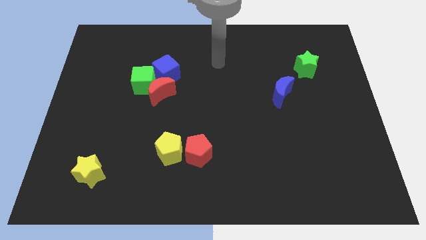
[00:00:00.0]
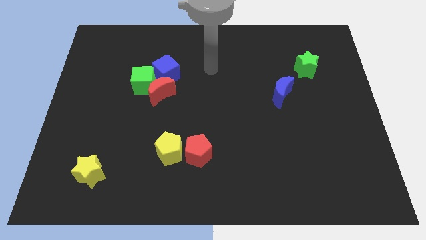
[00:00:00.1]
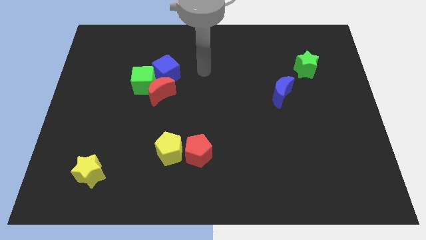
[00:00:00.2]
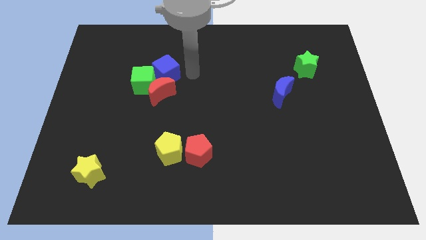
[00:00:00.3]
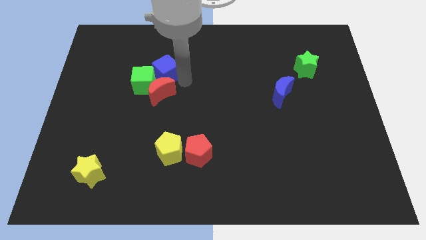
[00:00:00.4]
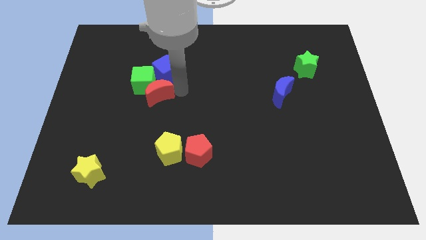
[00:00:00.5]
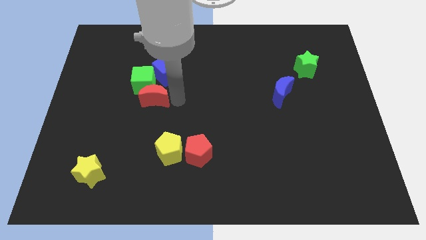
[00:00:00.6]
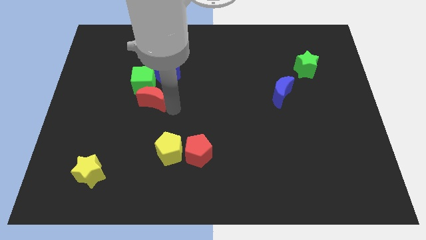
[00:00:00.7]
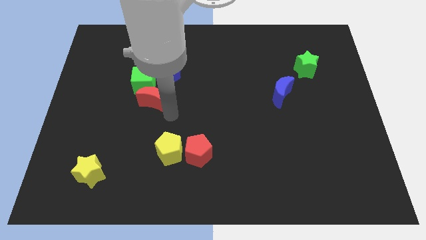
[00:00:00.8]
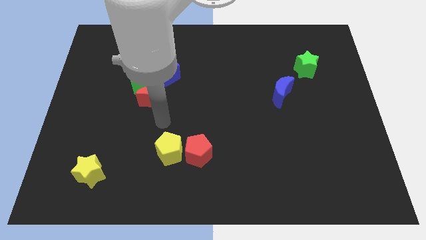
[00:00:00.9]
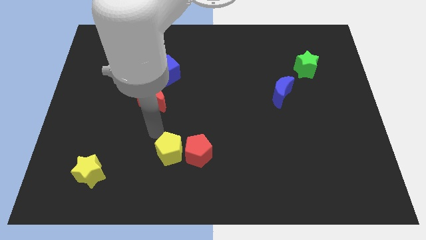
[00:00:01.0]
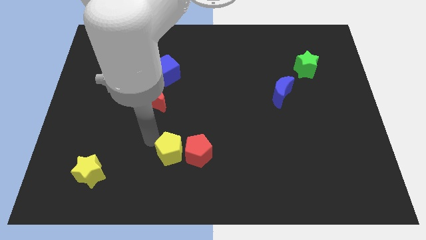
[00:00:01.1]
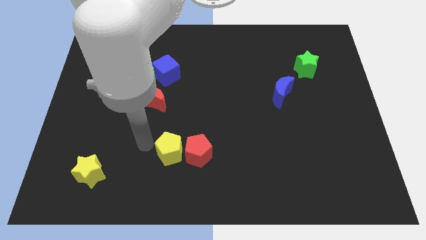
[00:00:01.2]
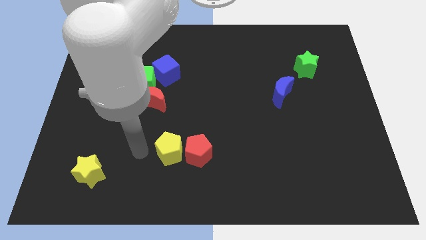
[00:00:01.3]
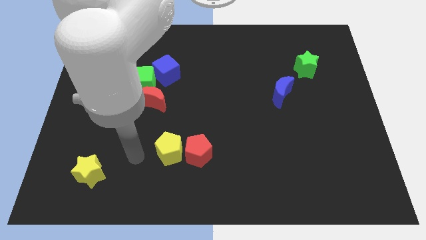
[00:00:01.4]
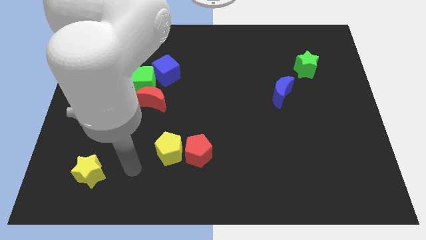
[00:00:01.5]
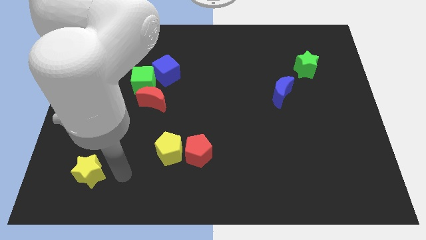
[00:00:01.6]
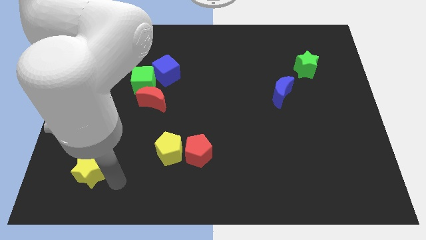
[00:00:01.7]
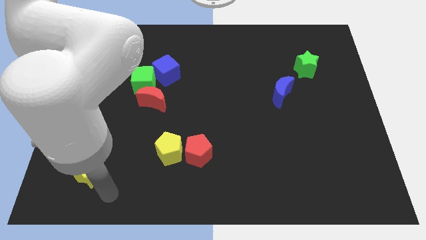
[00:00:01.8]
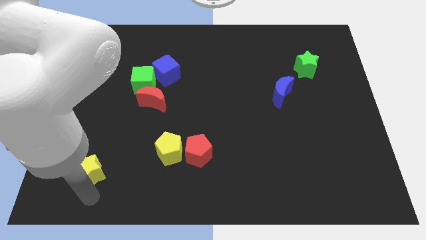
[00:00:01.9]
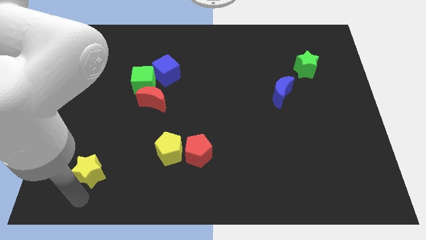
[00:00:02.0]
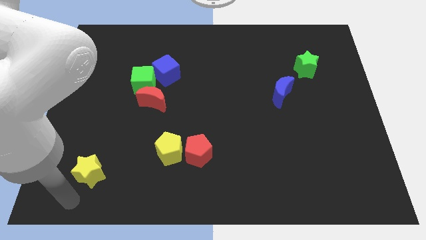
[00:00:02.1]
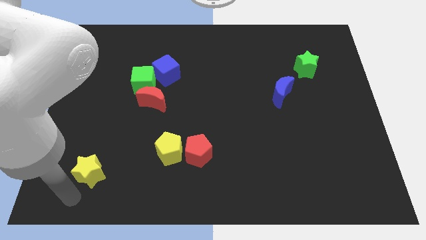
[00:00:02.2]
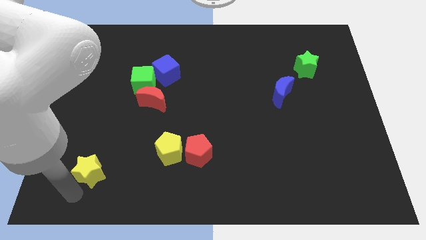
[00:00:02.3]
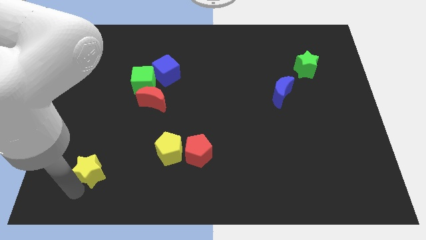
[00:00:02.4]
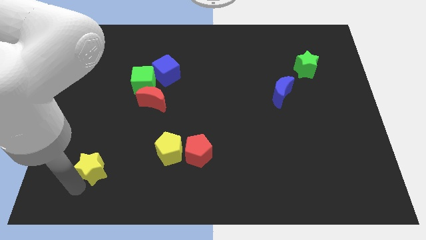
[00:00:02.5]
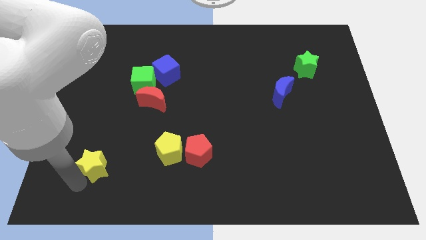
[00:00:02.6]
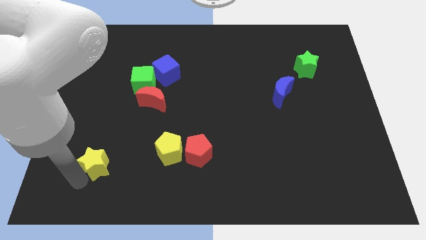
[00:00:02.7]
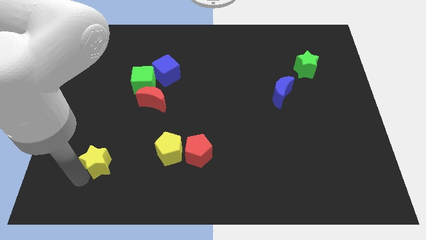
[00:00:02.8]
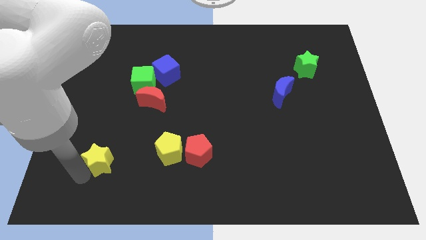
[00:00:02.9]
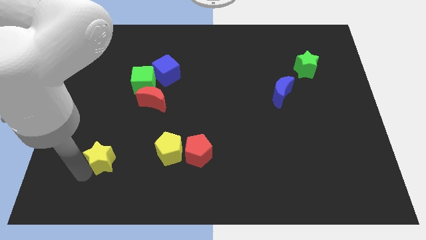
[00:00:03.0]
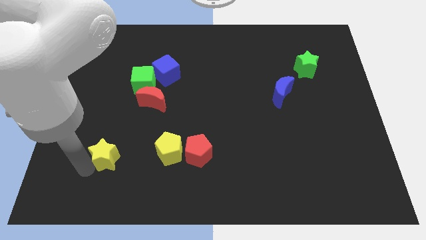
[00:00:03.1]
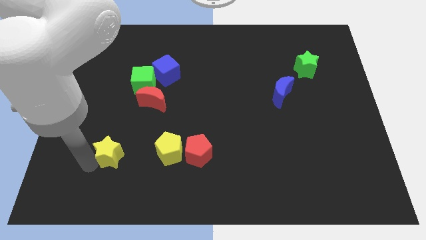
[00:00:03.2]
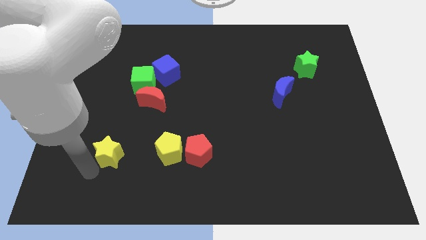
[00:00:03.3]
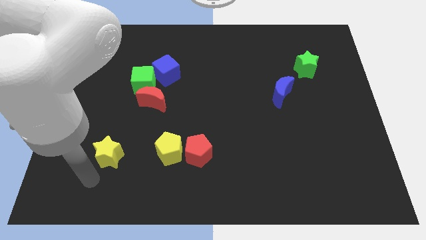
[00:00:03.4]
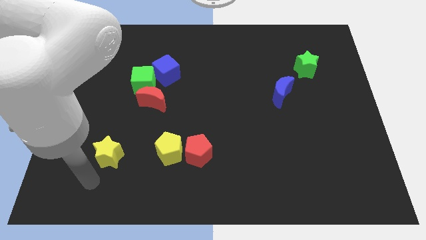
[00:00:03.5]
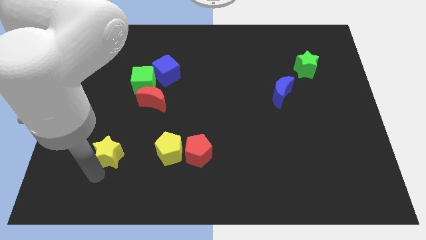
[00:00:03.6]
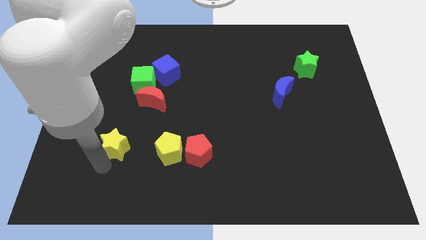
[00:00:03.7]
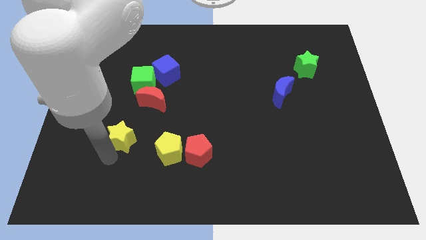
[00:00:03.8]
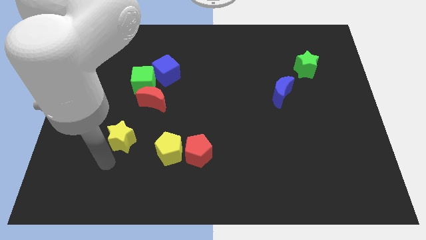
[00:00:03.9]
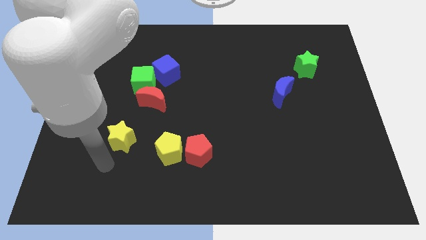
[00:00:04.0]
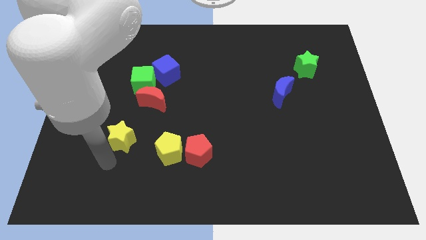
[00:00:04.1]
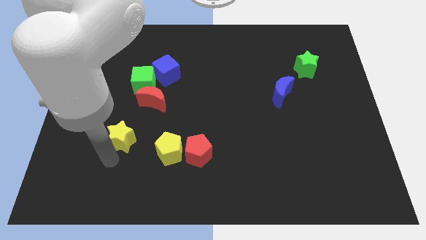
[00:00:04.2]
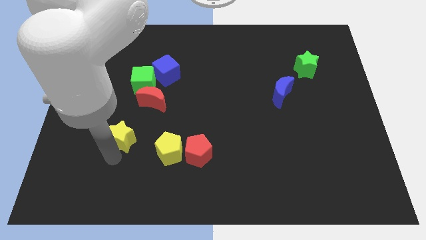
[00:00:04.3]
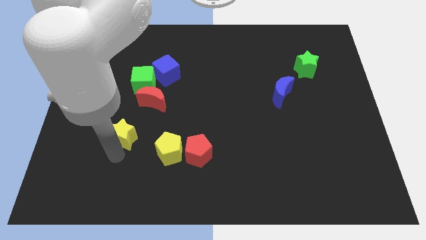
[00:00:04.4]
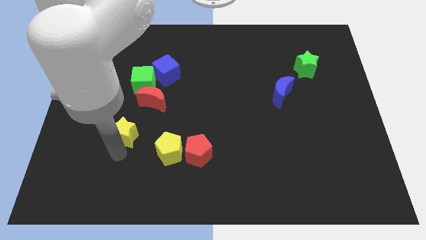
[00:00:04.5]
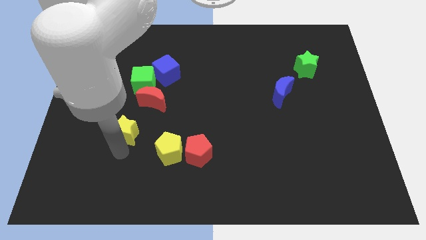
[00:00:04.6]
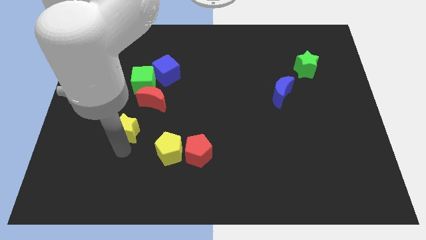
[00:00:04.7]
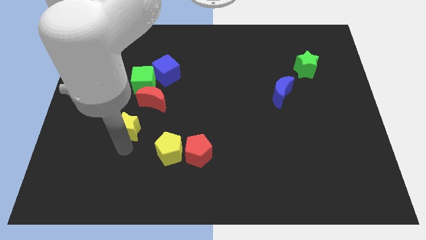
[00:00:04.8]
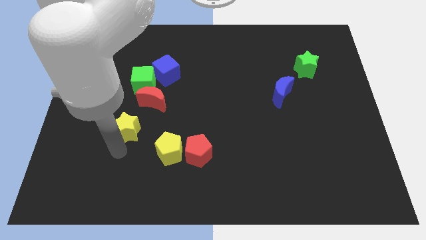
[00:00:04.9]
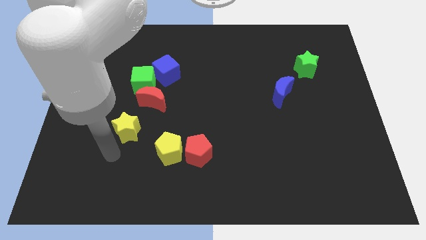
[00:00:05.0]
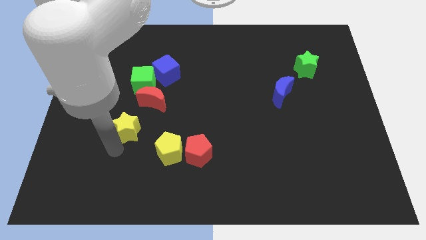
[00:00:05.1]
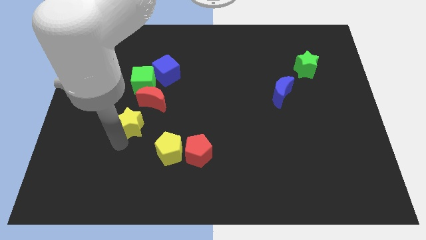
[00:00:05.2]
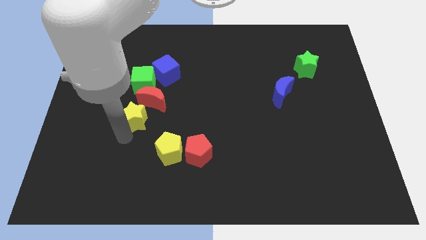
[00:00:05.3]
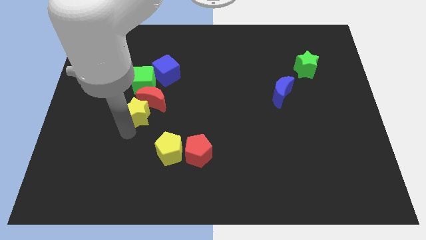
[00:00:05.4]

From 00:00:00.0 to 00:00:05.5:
push the yellow star towards the red moon

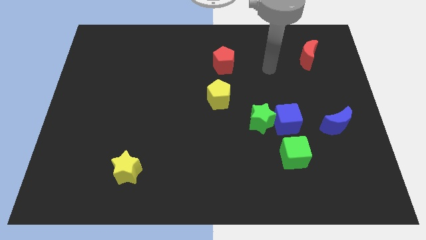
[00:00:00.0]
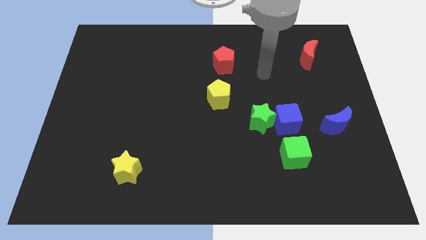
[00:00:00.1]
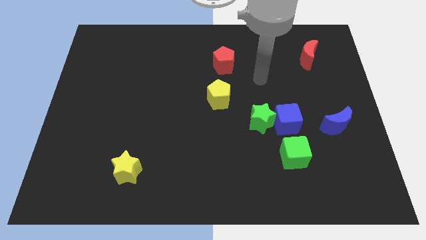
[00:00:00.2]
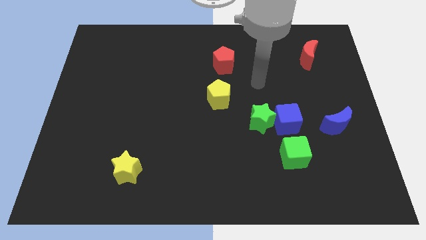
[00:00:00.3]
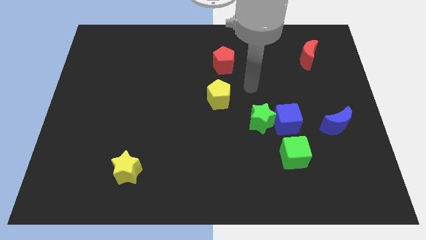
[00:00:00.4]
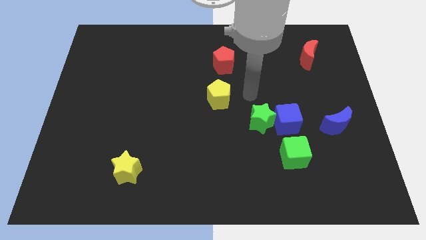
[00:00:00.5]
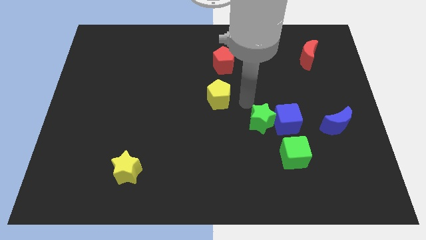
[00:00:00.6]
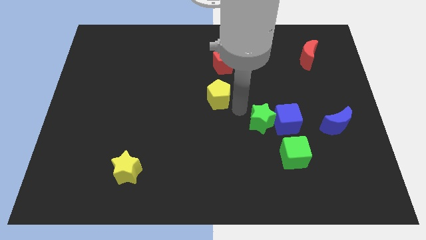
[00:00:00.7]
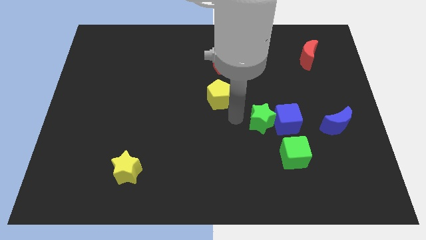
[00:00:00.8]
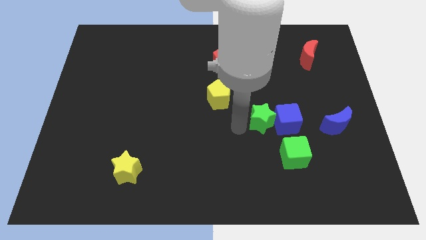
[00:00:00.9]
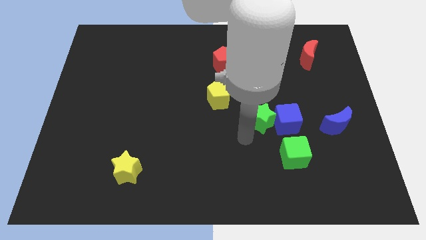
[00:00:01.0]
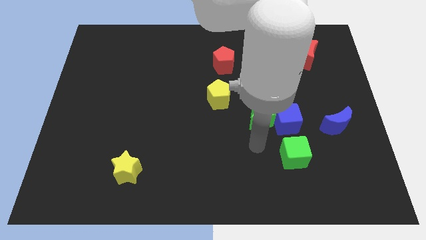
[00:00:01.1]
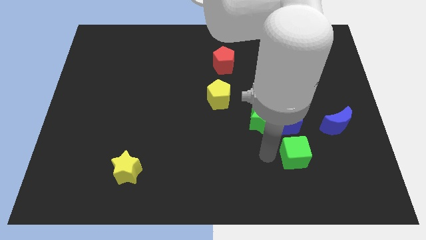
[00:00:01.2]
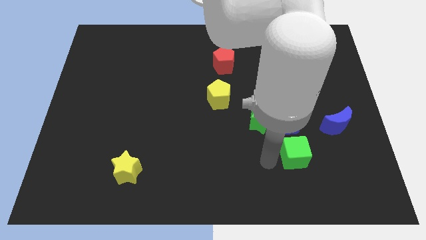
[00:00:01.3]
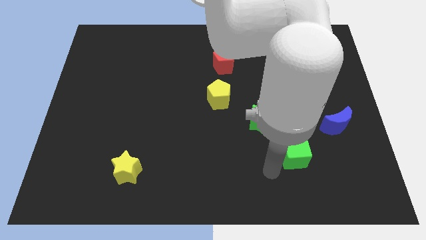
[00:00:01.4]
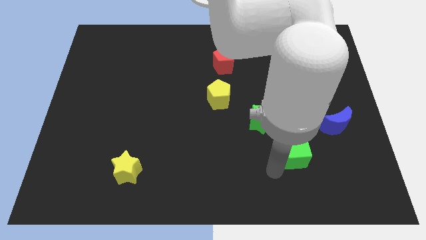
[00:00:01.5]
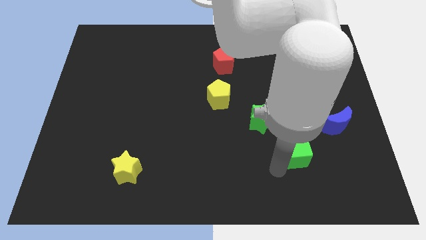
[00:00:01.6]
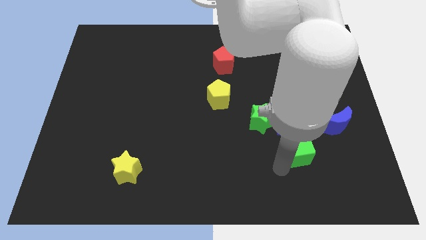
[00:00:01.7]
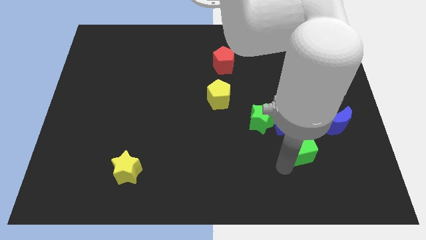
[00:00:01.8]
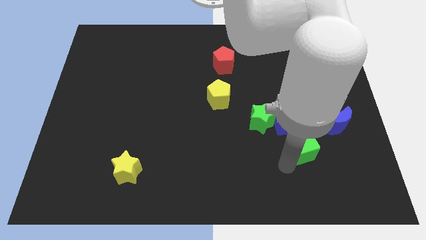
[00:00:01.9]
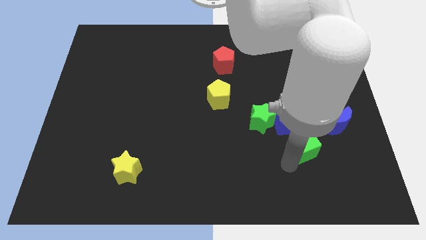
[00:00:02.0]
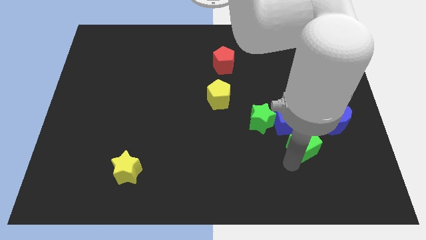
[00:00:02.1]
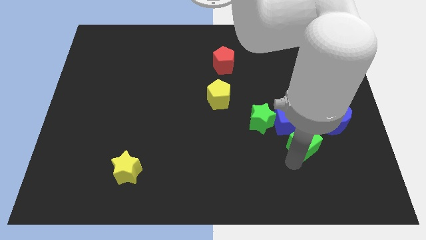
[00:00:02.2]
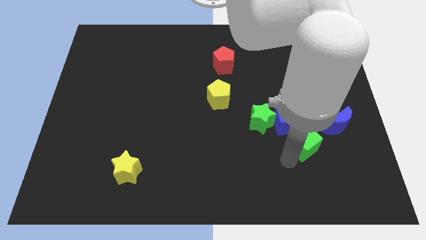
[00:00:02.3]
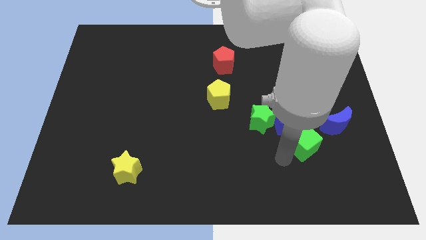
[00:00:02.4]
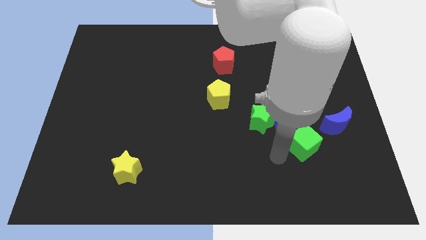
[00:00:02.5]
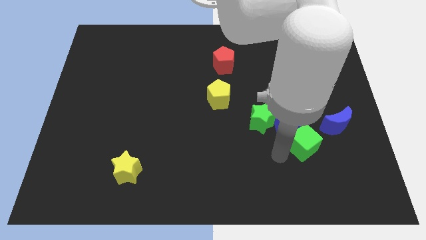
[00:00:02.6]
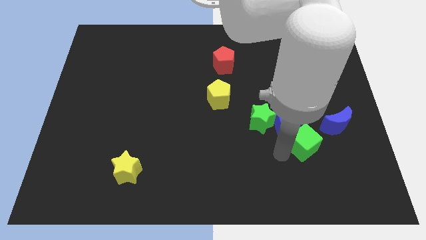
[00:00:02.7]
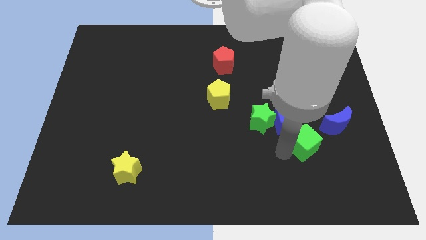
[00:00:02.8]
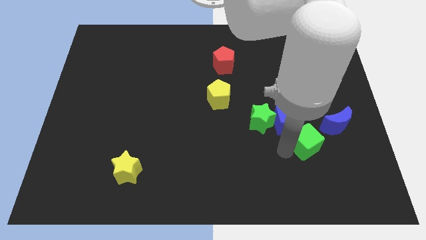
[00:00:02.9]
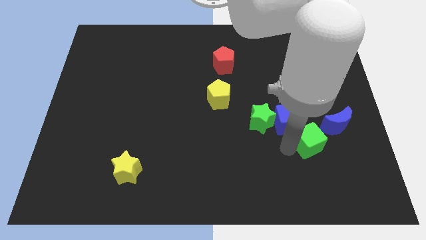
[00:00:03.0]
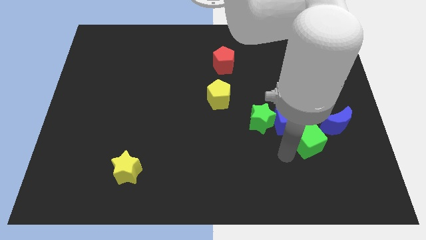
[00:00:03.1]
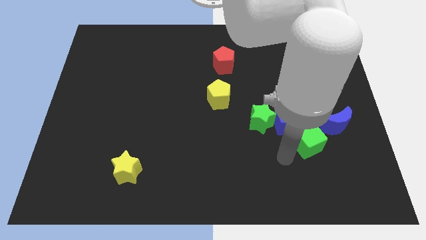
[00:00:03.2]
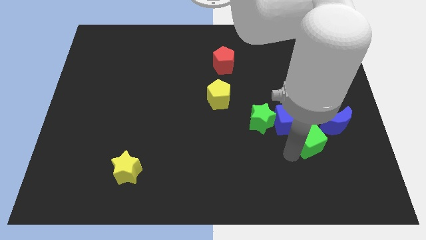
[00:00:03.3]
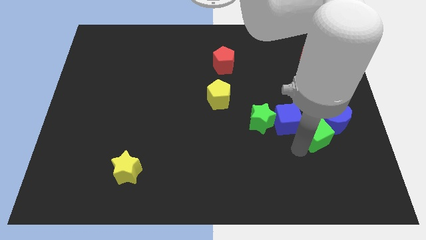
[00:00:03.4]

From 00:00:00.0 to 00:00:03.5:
slide the green cube next to the blue moon
